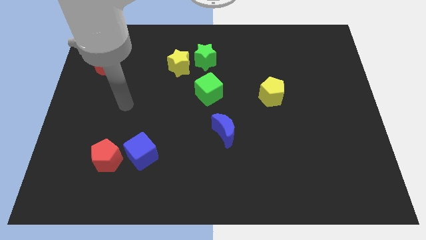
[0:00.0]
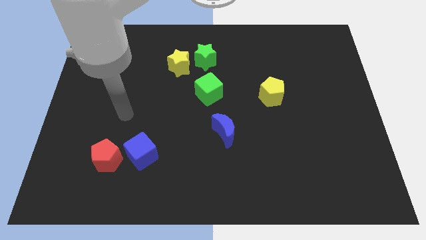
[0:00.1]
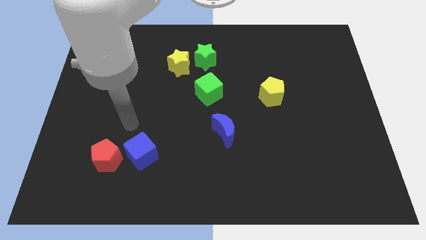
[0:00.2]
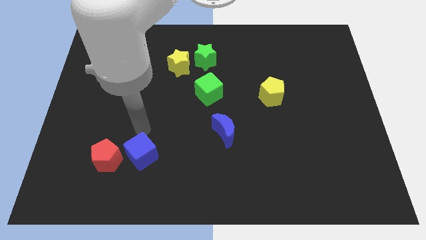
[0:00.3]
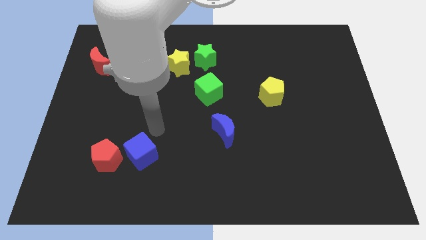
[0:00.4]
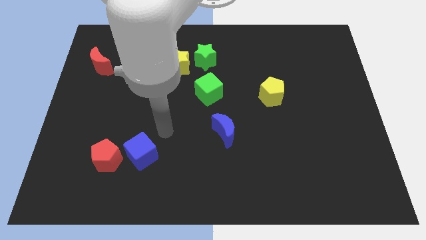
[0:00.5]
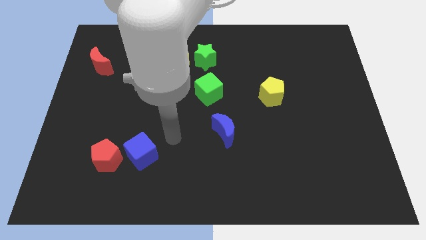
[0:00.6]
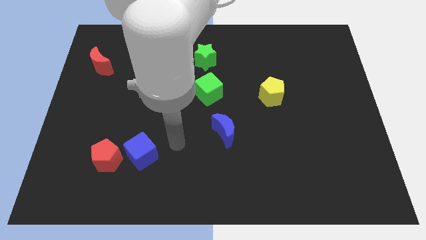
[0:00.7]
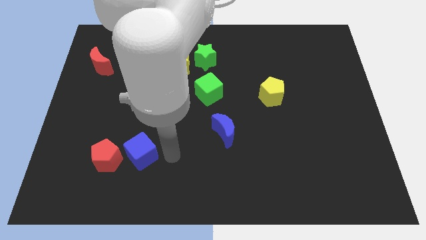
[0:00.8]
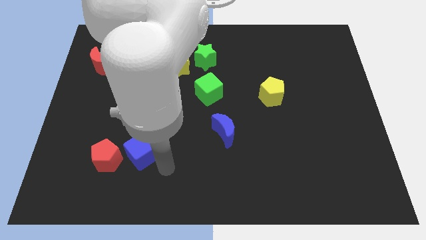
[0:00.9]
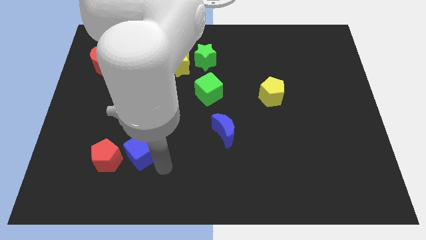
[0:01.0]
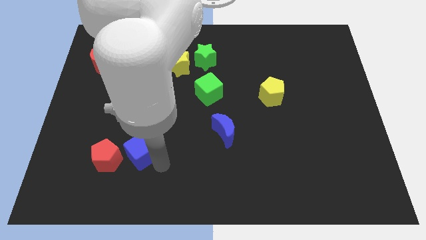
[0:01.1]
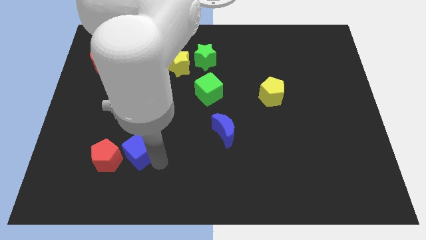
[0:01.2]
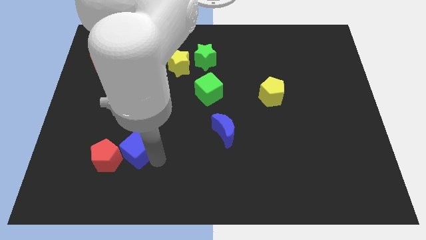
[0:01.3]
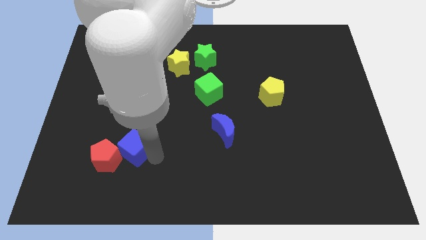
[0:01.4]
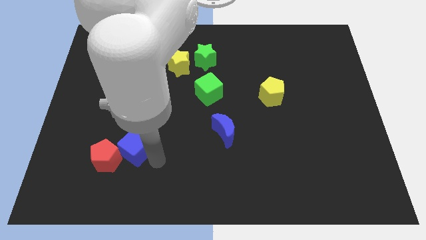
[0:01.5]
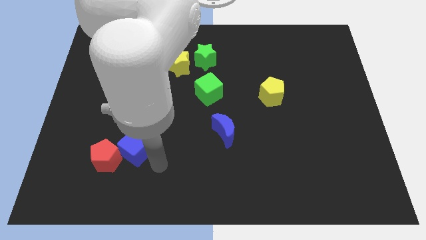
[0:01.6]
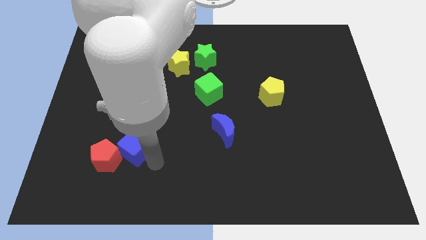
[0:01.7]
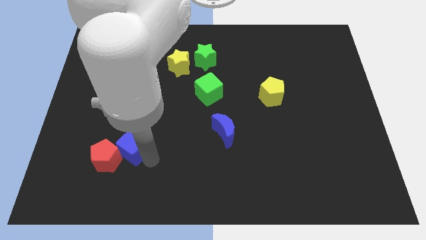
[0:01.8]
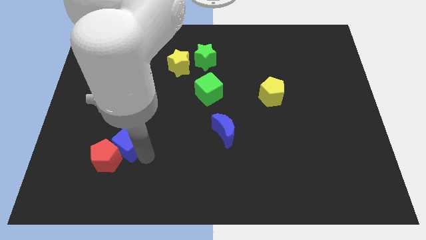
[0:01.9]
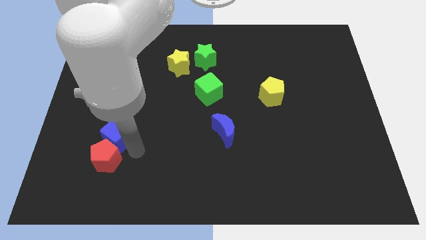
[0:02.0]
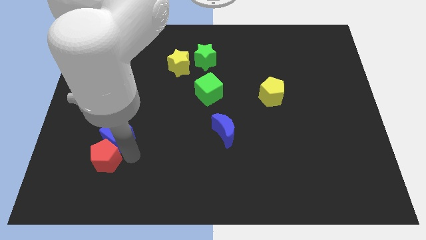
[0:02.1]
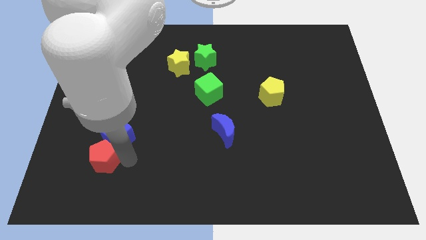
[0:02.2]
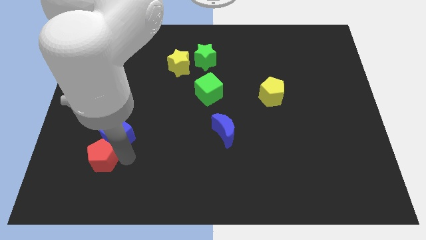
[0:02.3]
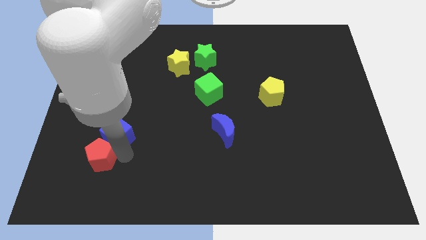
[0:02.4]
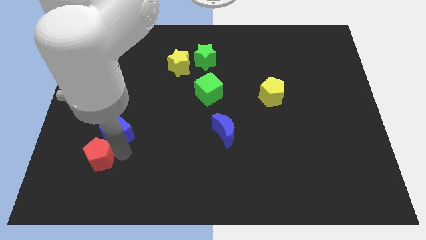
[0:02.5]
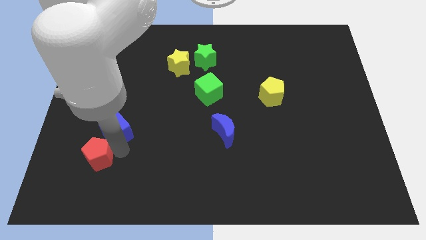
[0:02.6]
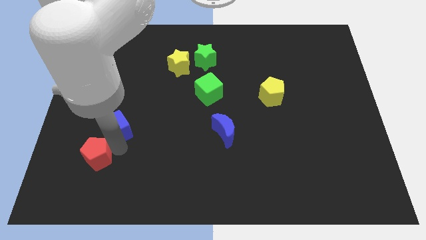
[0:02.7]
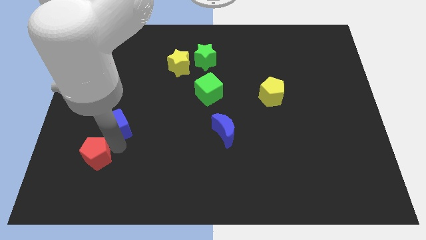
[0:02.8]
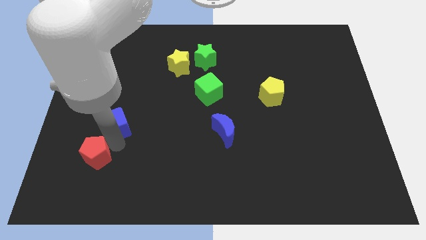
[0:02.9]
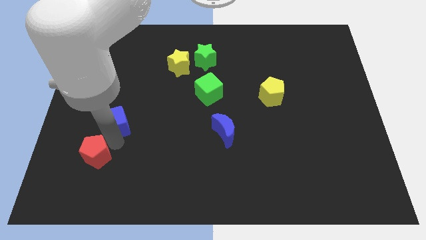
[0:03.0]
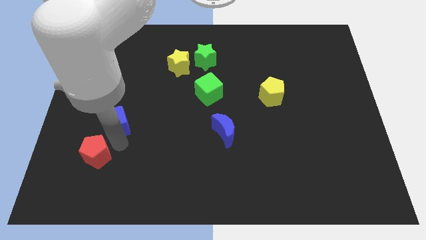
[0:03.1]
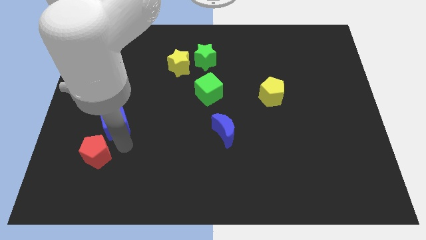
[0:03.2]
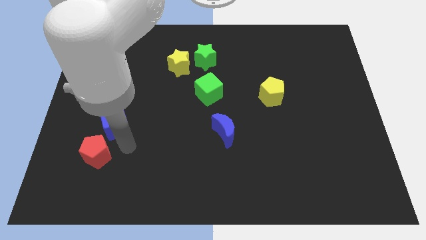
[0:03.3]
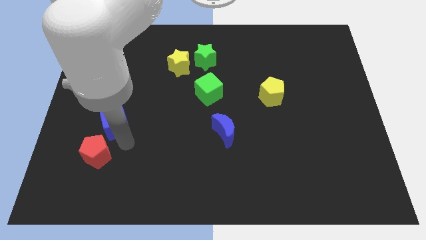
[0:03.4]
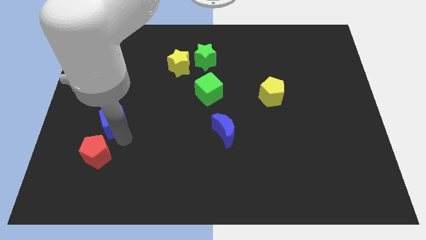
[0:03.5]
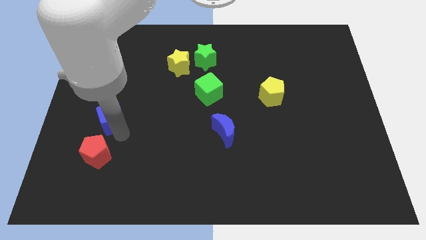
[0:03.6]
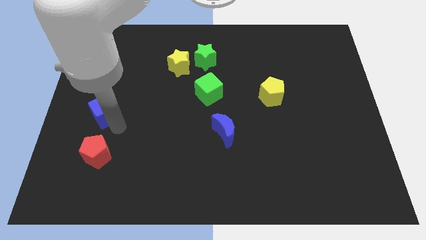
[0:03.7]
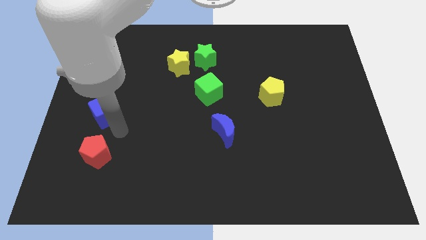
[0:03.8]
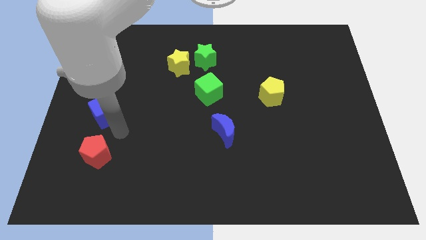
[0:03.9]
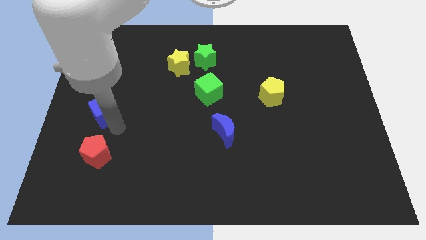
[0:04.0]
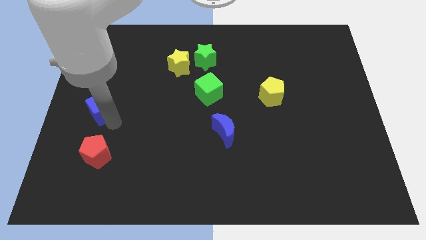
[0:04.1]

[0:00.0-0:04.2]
move the blue cube below the red moon

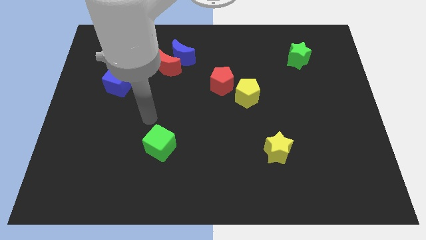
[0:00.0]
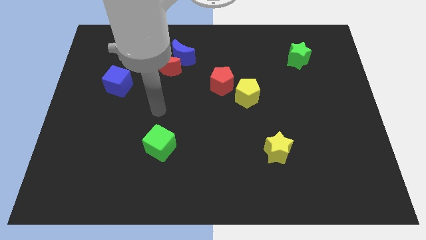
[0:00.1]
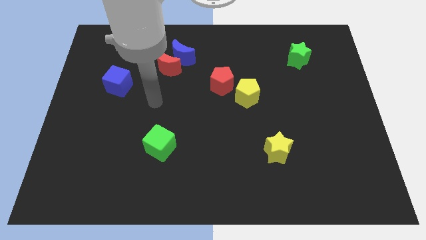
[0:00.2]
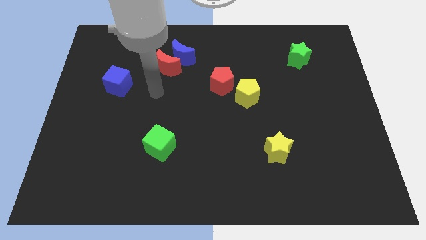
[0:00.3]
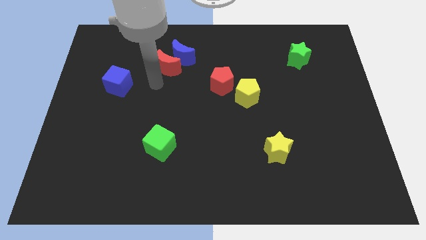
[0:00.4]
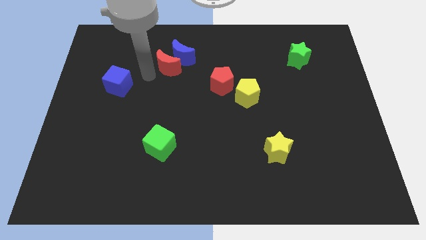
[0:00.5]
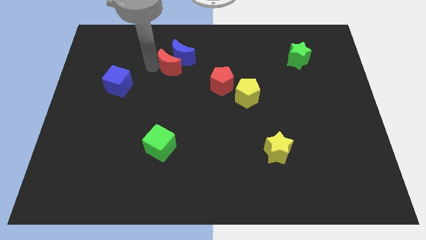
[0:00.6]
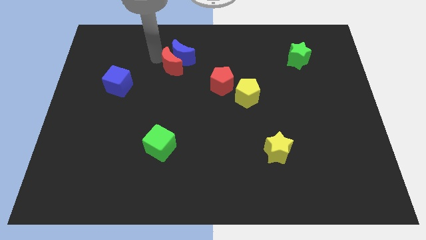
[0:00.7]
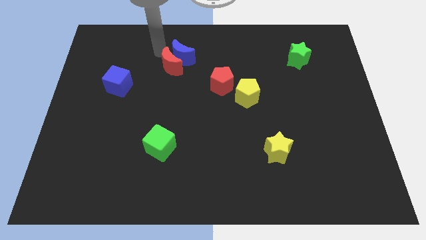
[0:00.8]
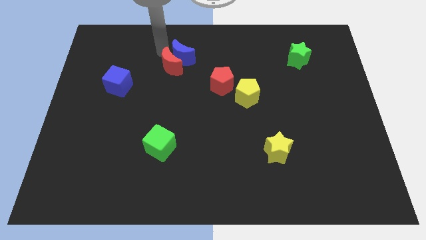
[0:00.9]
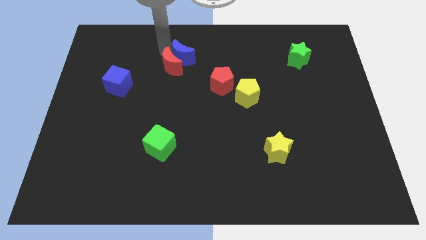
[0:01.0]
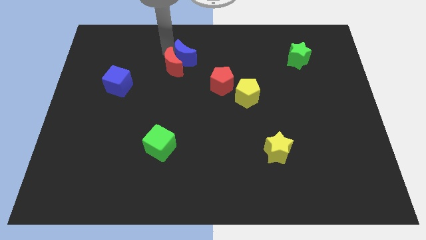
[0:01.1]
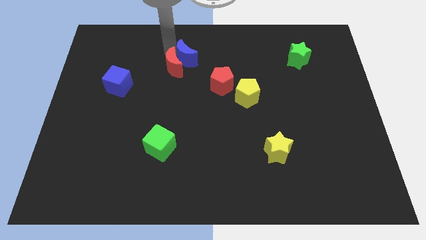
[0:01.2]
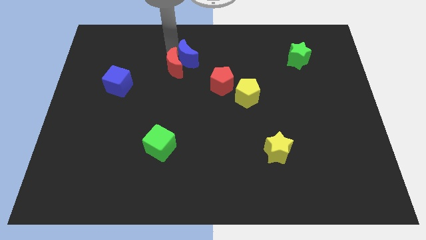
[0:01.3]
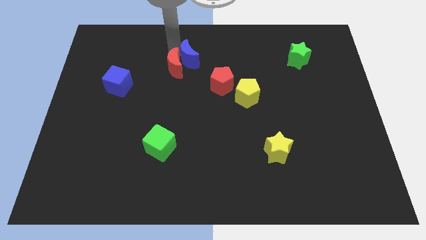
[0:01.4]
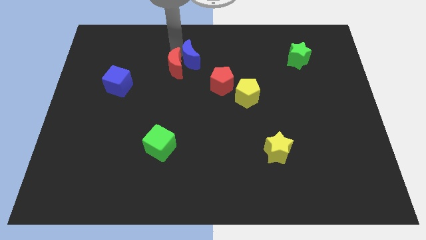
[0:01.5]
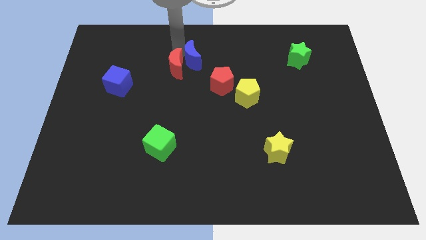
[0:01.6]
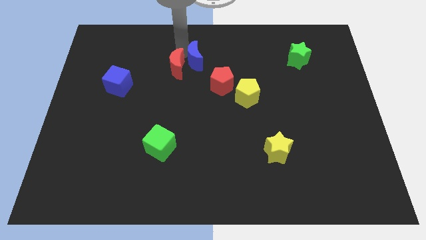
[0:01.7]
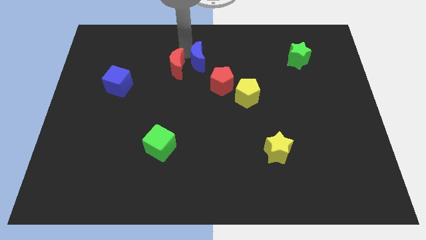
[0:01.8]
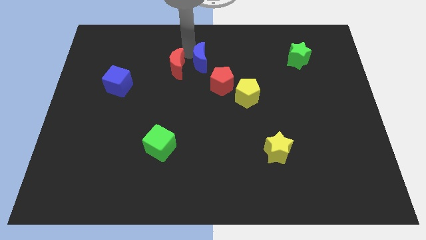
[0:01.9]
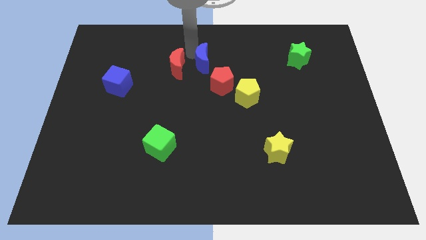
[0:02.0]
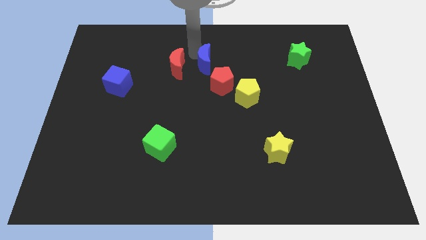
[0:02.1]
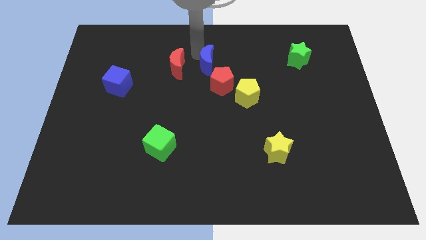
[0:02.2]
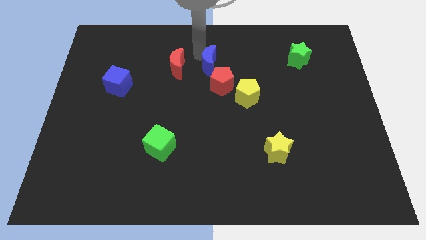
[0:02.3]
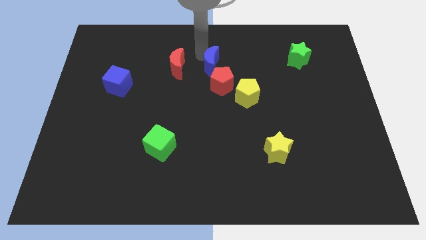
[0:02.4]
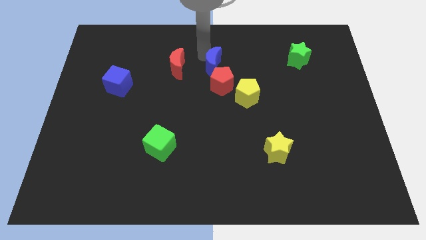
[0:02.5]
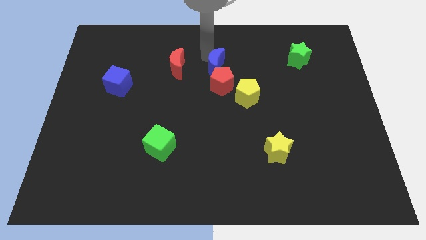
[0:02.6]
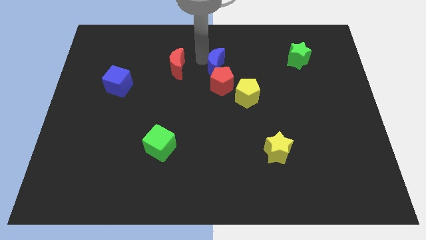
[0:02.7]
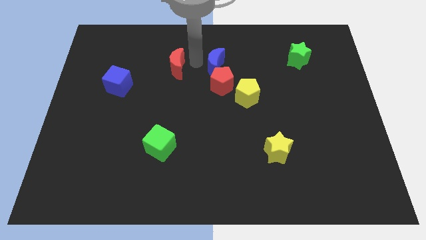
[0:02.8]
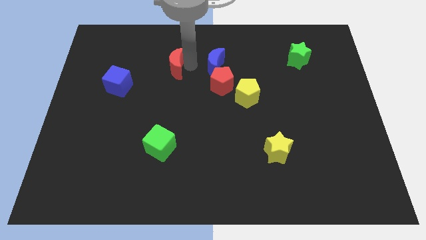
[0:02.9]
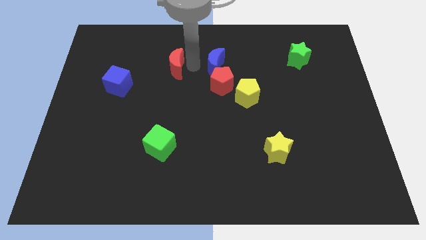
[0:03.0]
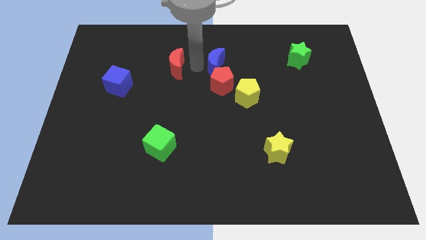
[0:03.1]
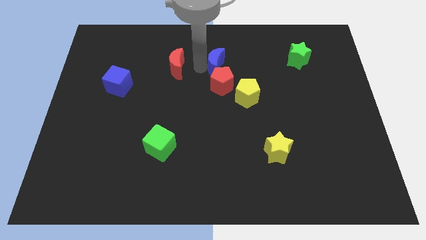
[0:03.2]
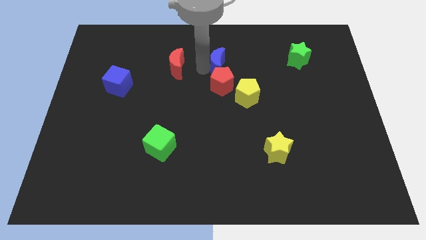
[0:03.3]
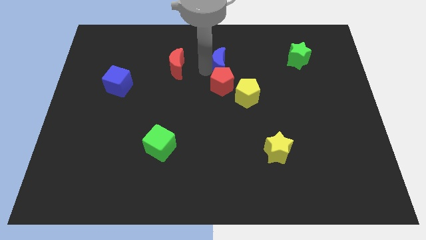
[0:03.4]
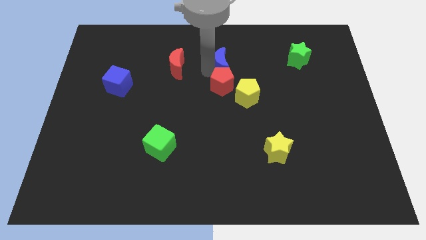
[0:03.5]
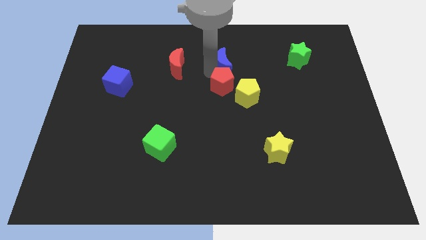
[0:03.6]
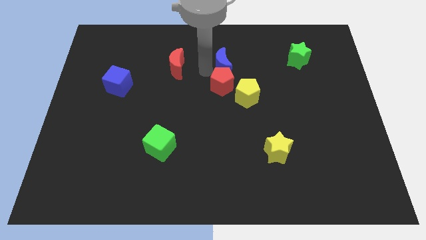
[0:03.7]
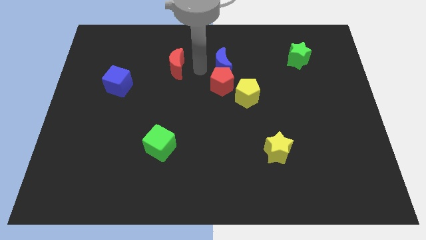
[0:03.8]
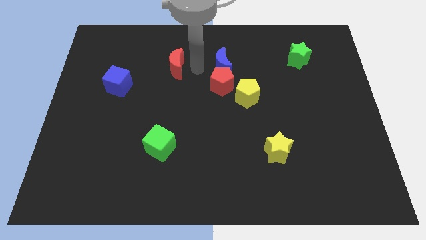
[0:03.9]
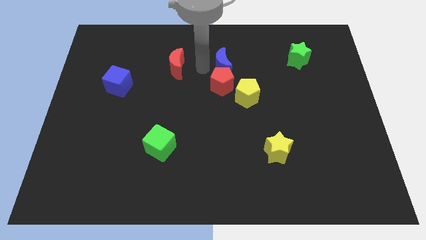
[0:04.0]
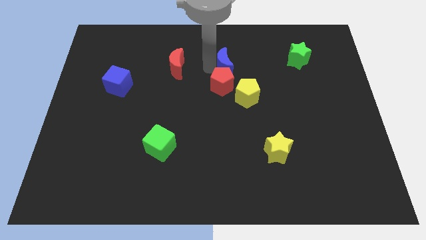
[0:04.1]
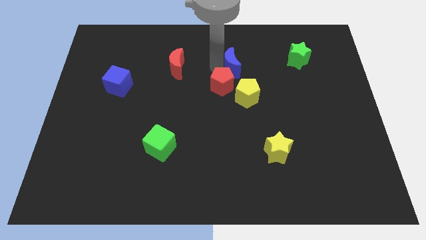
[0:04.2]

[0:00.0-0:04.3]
move the blue moon to the top of the yellow pentagon
